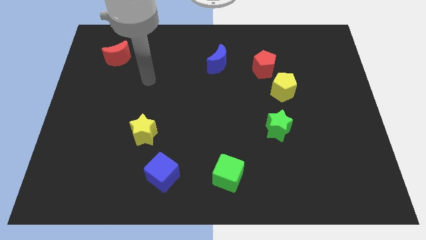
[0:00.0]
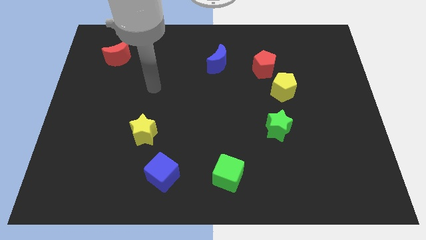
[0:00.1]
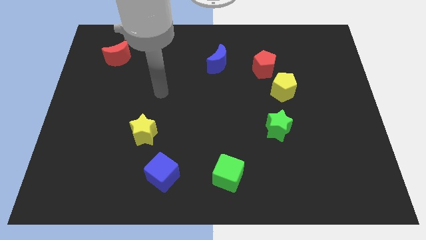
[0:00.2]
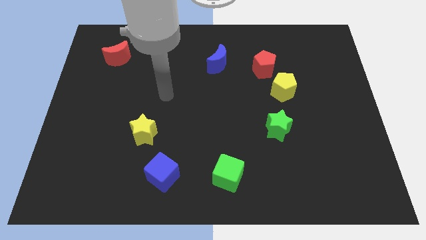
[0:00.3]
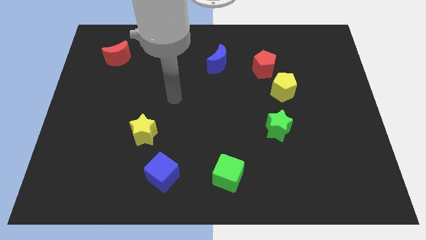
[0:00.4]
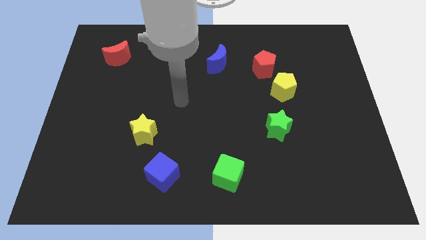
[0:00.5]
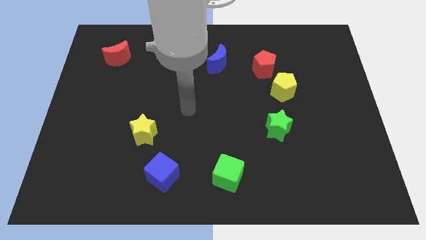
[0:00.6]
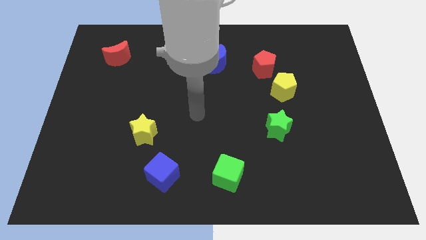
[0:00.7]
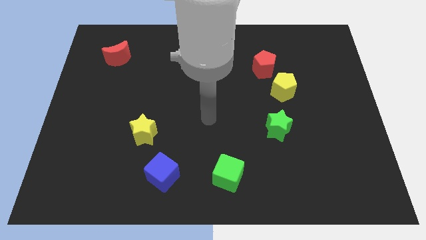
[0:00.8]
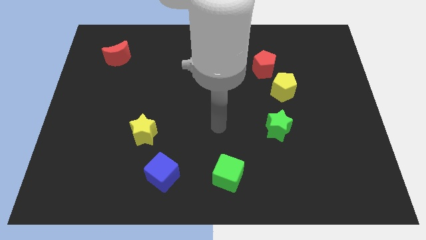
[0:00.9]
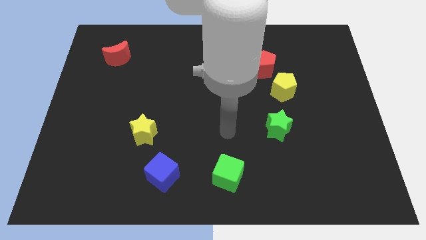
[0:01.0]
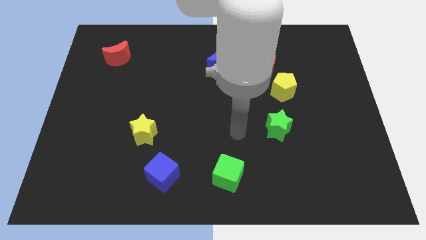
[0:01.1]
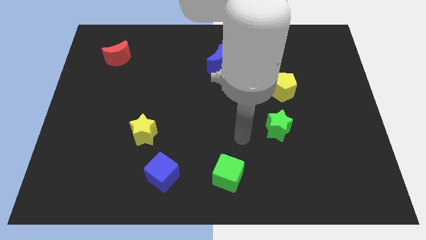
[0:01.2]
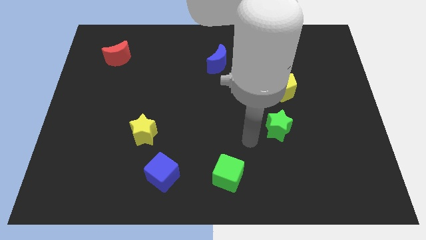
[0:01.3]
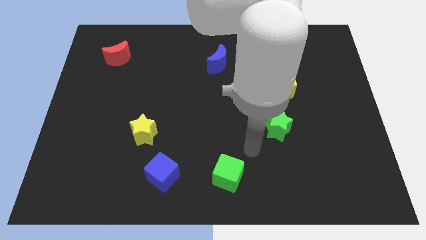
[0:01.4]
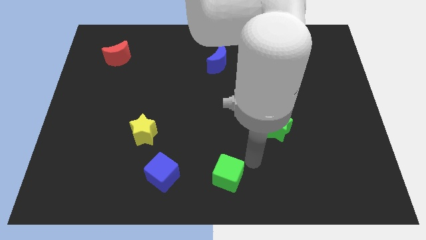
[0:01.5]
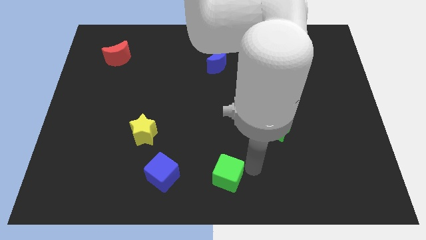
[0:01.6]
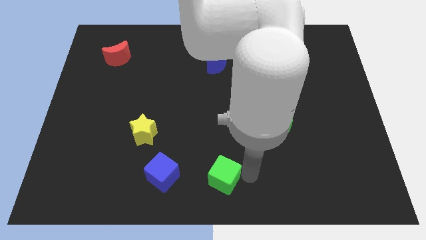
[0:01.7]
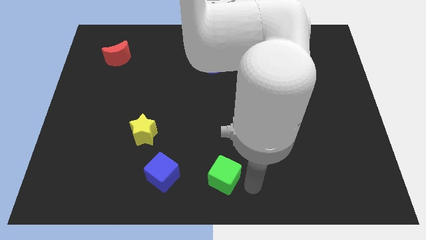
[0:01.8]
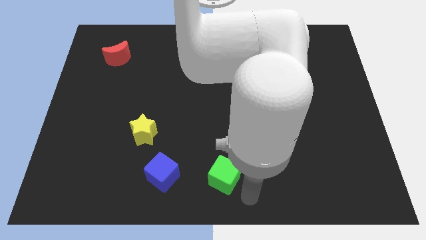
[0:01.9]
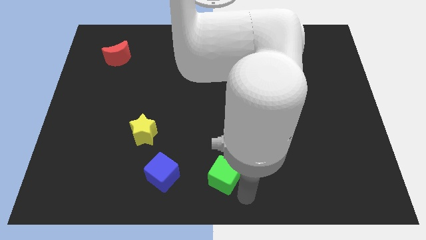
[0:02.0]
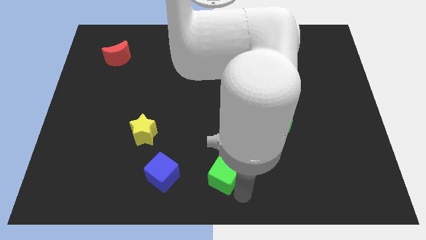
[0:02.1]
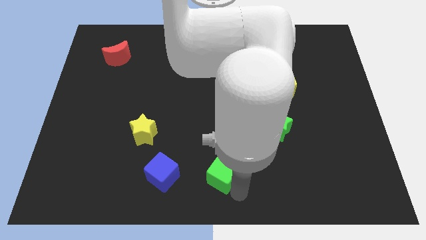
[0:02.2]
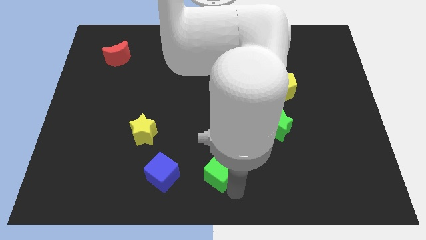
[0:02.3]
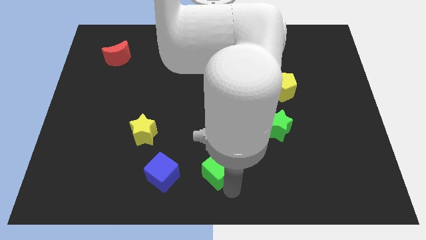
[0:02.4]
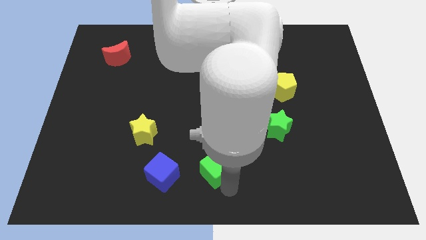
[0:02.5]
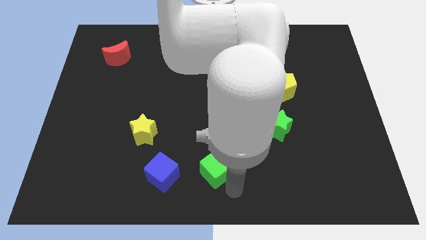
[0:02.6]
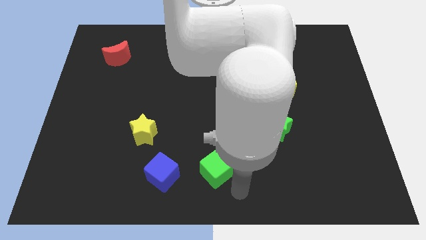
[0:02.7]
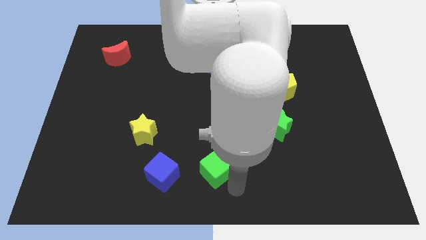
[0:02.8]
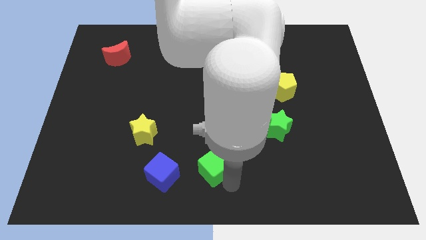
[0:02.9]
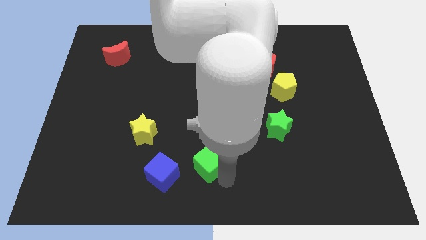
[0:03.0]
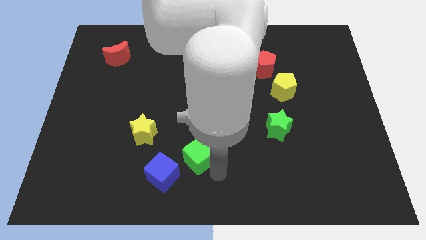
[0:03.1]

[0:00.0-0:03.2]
push the green cube up and then left a little

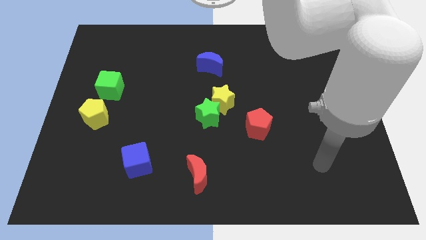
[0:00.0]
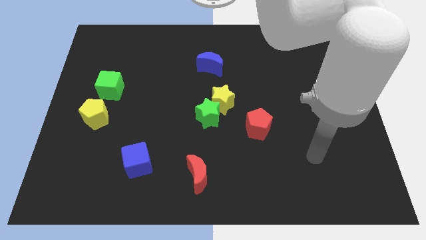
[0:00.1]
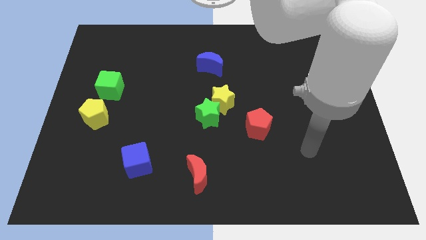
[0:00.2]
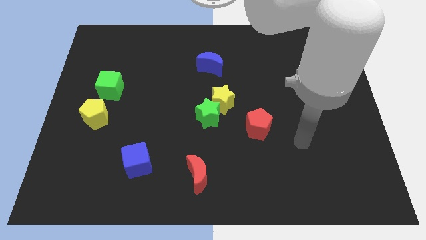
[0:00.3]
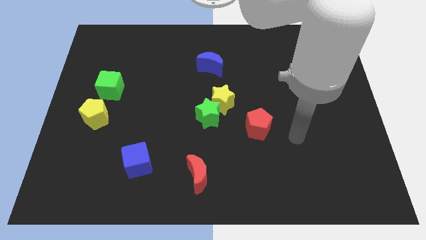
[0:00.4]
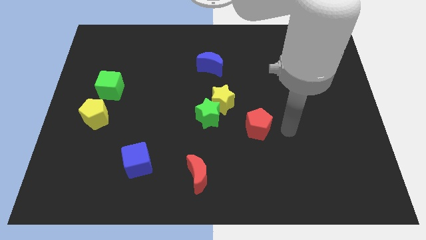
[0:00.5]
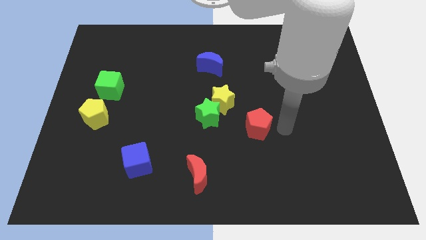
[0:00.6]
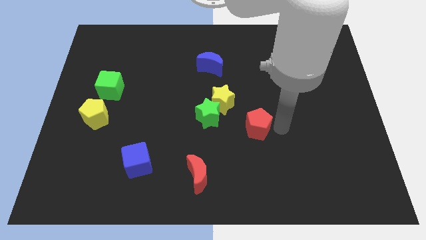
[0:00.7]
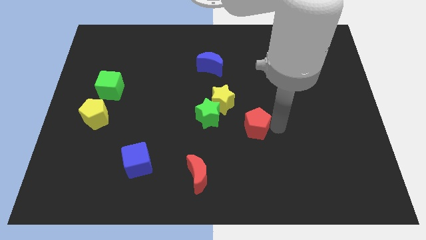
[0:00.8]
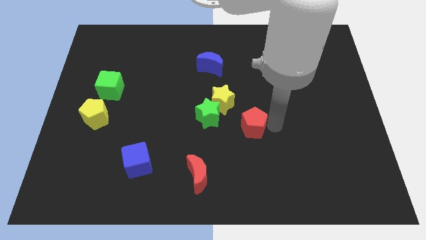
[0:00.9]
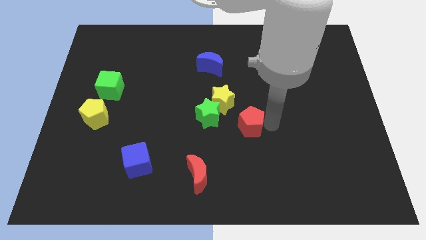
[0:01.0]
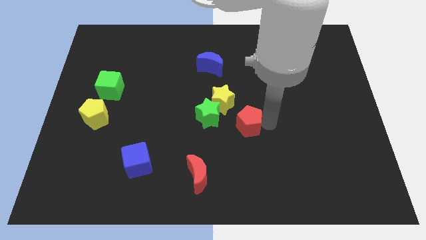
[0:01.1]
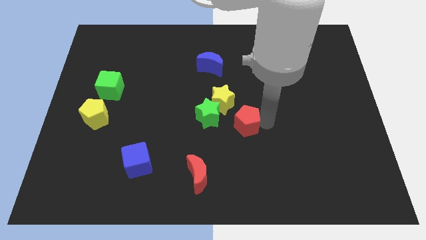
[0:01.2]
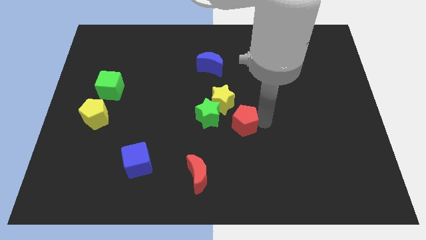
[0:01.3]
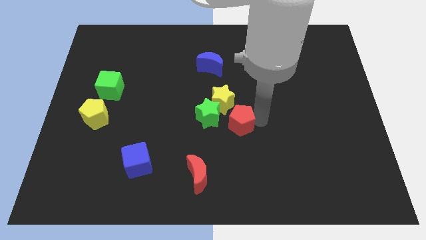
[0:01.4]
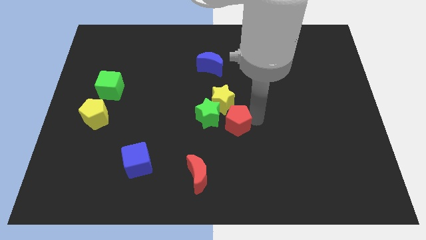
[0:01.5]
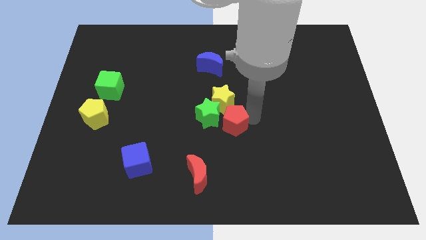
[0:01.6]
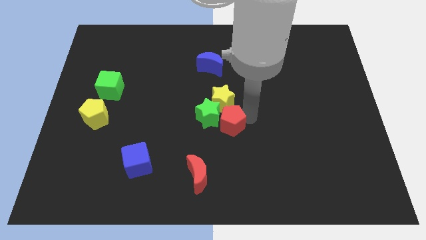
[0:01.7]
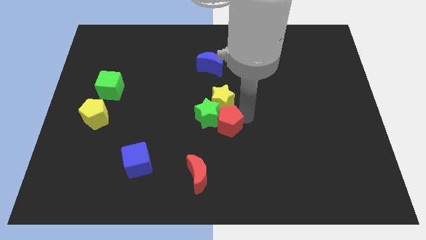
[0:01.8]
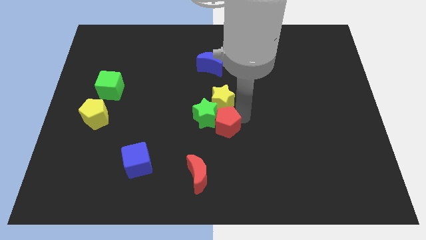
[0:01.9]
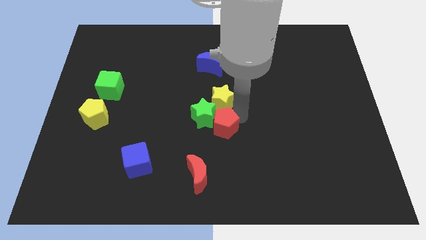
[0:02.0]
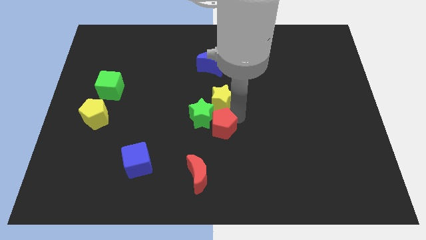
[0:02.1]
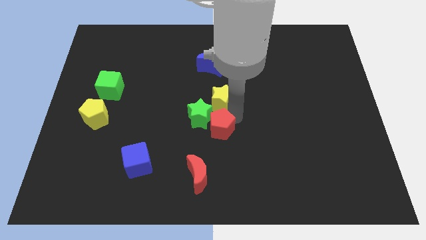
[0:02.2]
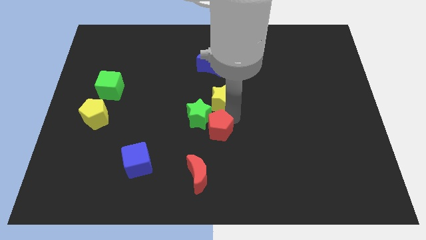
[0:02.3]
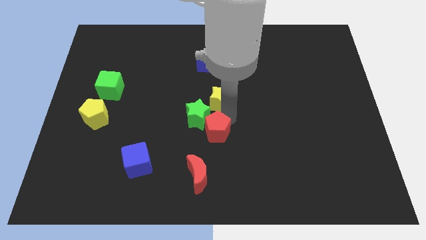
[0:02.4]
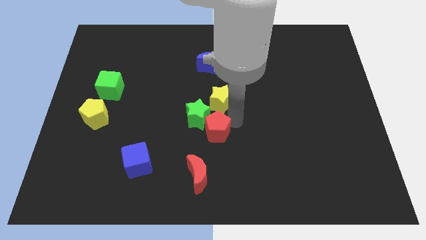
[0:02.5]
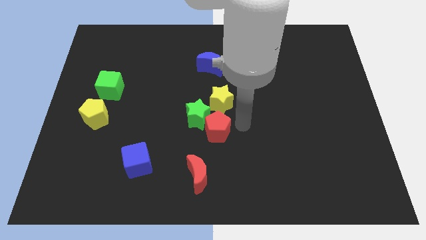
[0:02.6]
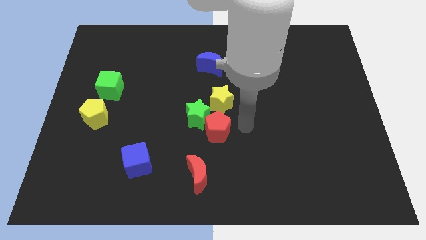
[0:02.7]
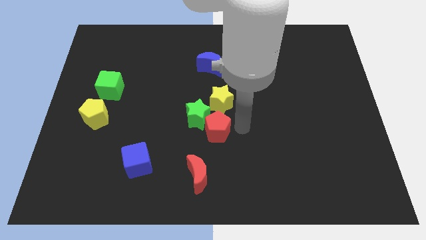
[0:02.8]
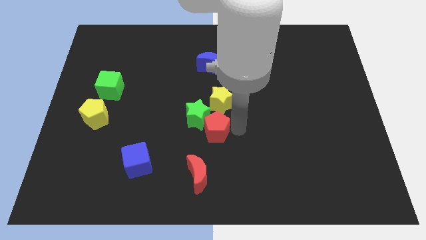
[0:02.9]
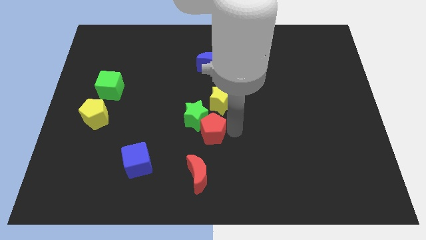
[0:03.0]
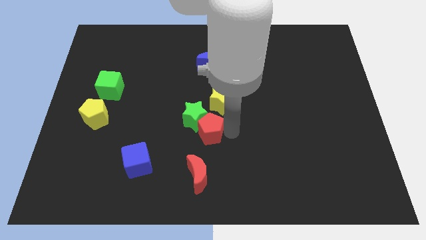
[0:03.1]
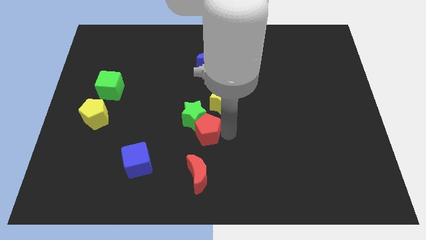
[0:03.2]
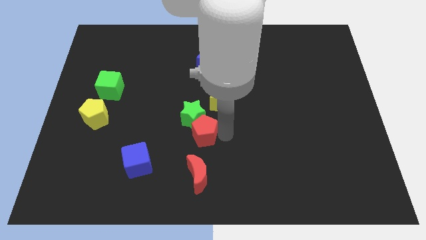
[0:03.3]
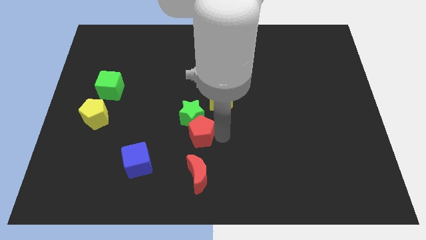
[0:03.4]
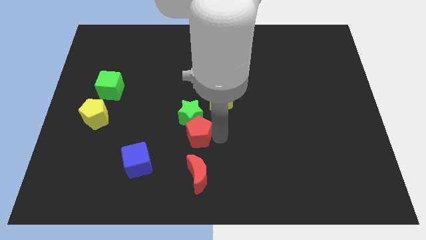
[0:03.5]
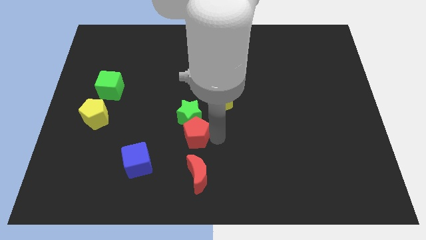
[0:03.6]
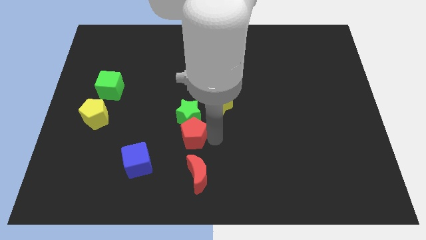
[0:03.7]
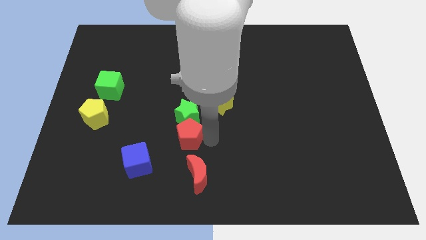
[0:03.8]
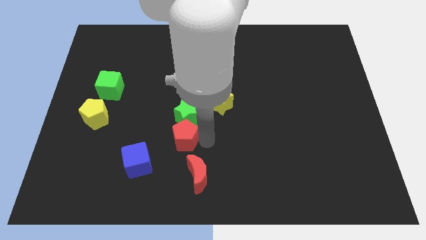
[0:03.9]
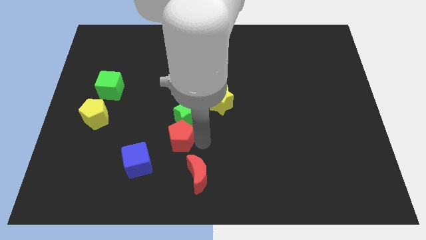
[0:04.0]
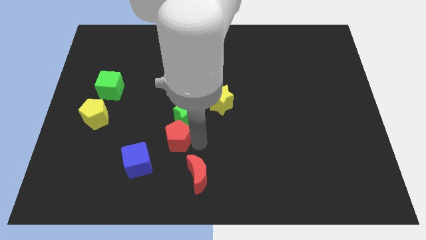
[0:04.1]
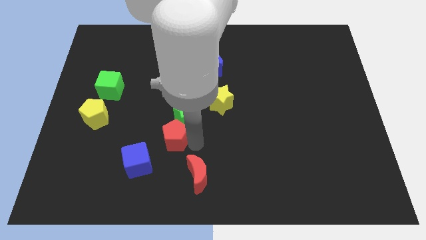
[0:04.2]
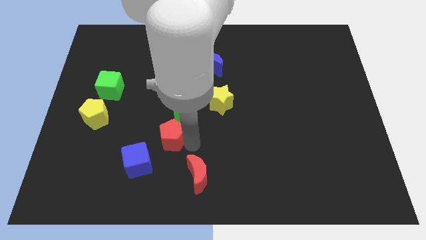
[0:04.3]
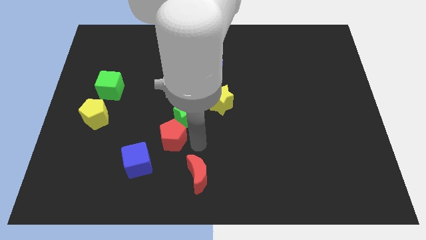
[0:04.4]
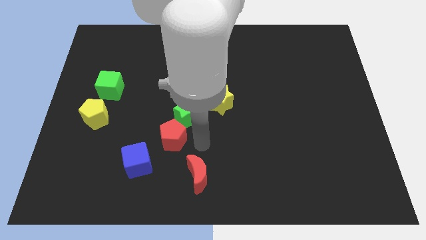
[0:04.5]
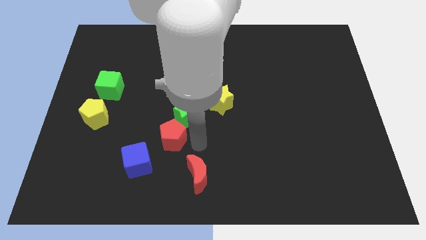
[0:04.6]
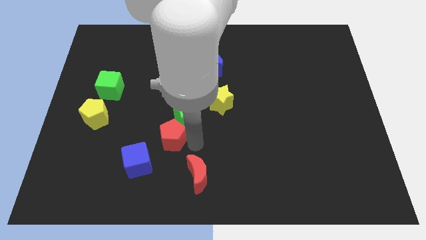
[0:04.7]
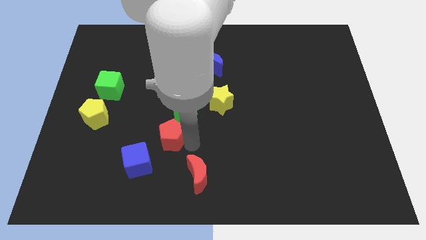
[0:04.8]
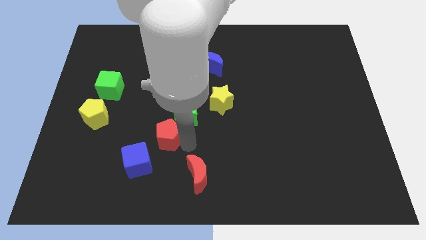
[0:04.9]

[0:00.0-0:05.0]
push the red pentagon to the left
